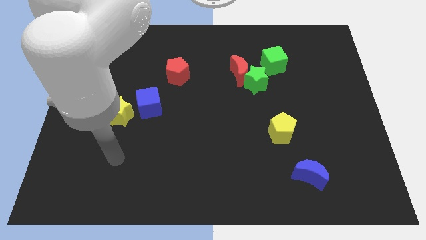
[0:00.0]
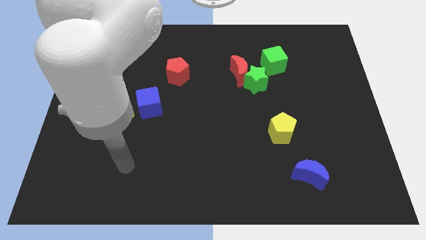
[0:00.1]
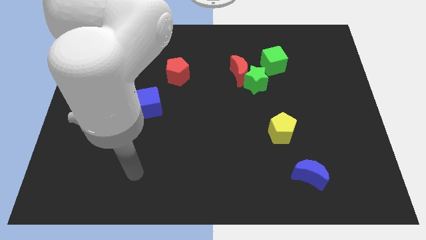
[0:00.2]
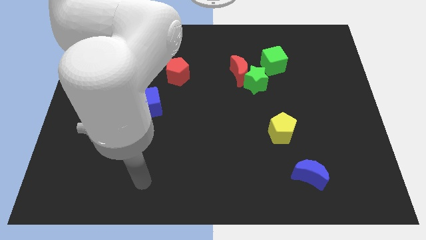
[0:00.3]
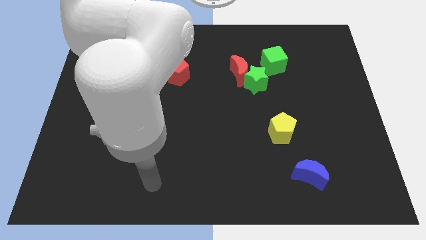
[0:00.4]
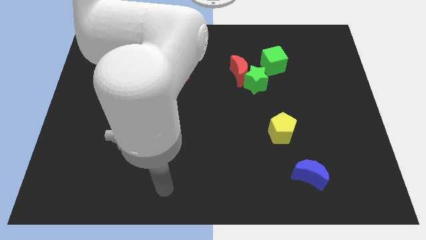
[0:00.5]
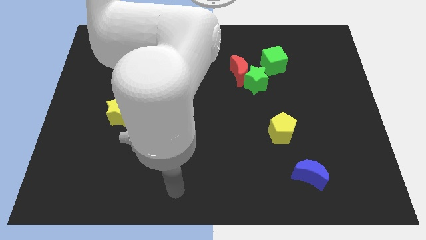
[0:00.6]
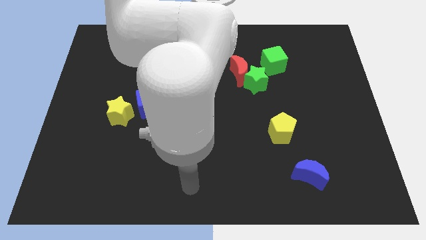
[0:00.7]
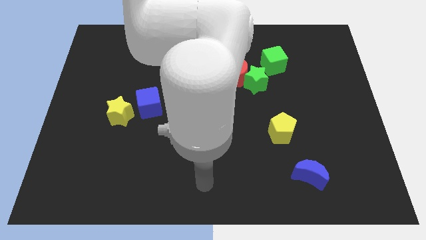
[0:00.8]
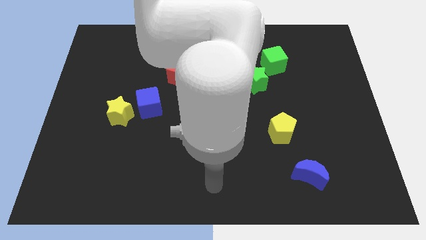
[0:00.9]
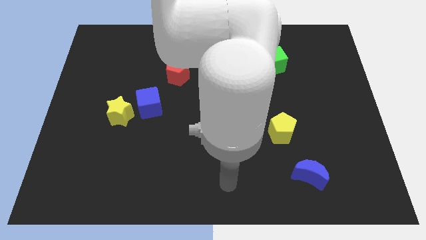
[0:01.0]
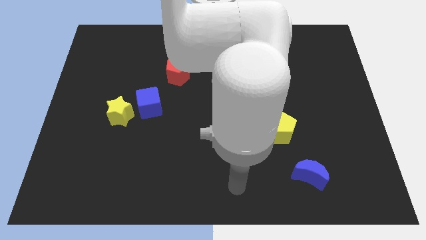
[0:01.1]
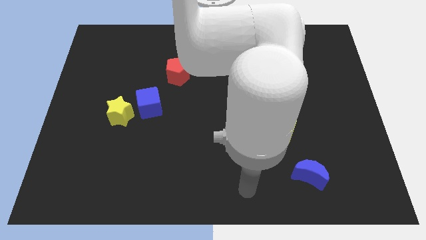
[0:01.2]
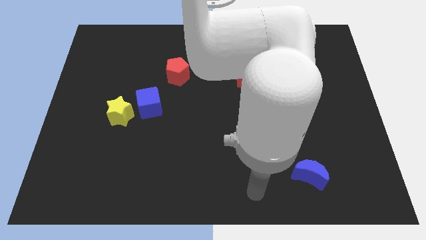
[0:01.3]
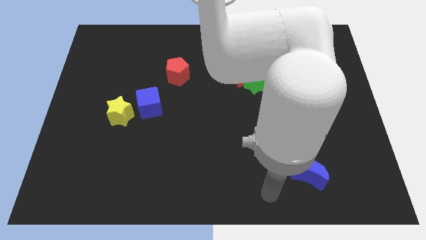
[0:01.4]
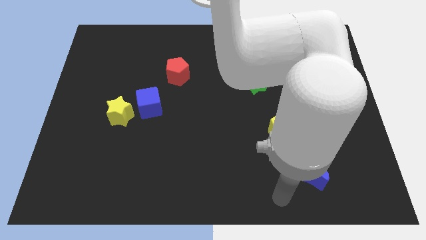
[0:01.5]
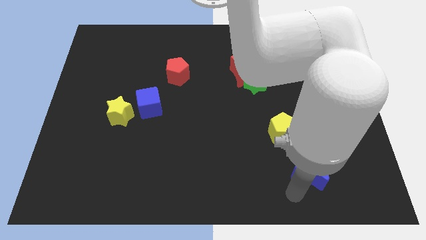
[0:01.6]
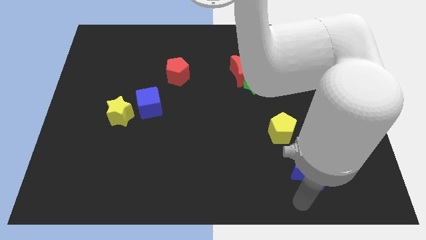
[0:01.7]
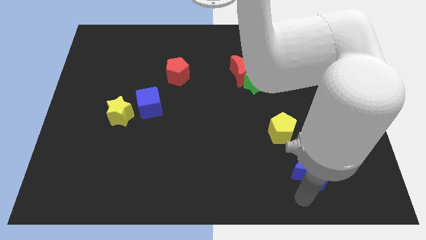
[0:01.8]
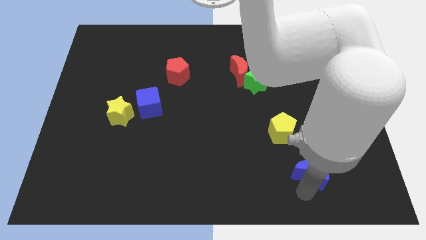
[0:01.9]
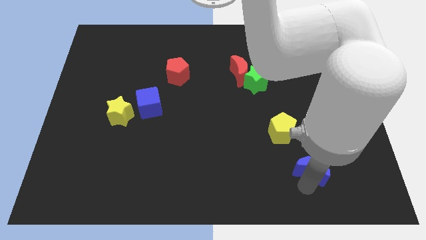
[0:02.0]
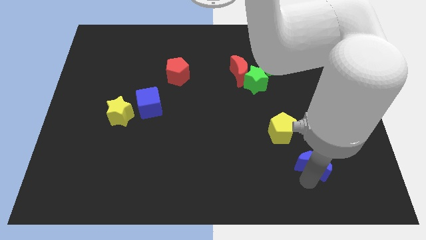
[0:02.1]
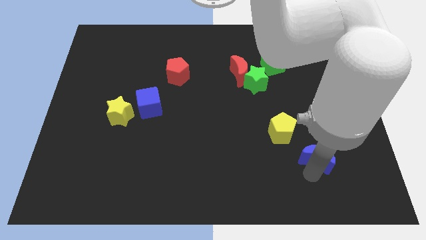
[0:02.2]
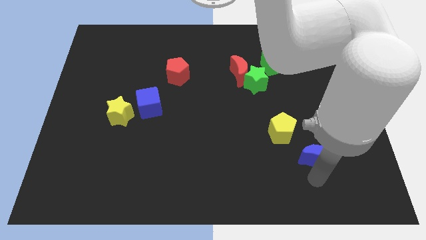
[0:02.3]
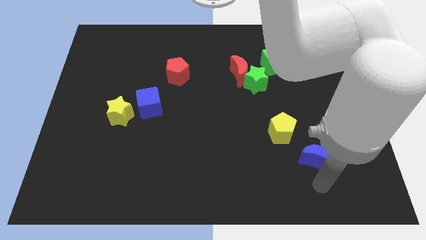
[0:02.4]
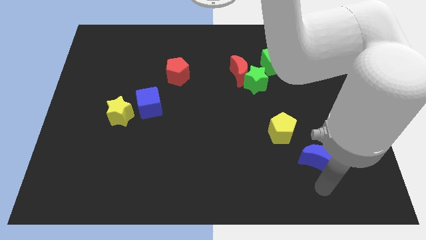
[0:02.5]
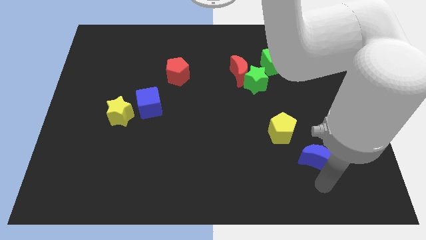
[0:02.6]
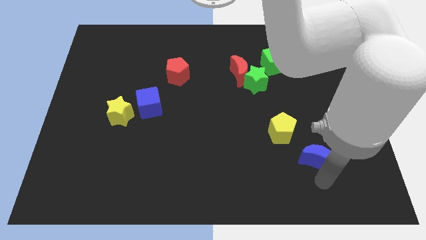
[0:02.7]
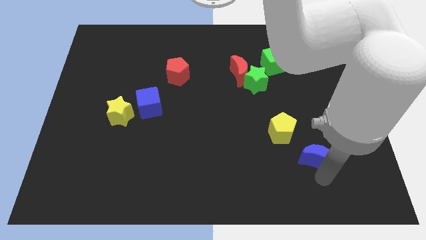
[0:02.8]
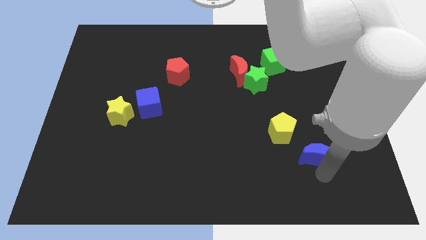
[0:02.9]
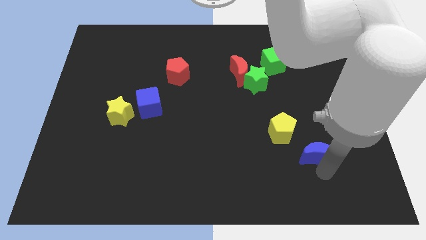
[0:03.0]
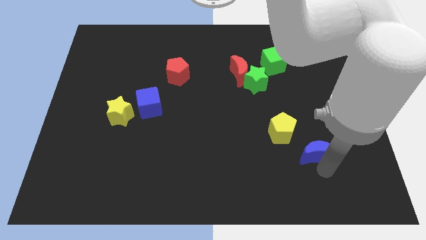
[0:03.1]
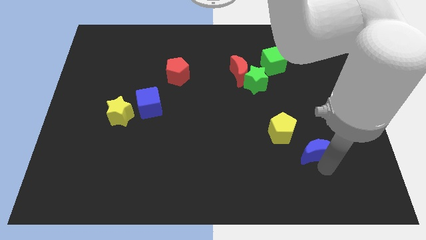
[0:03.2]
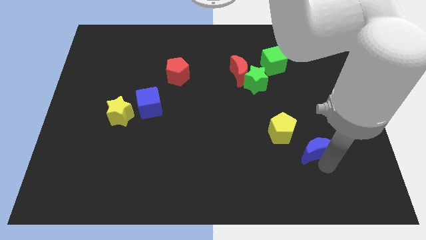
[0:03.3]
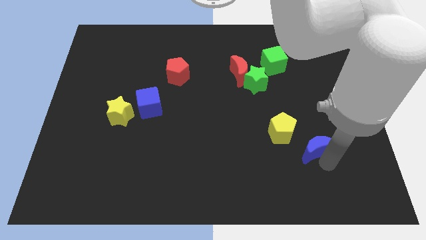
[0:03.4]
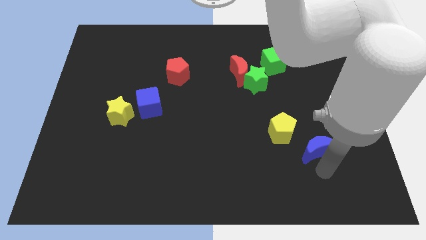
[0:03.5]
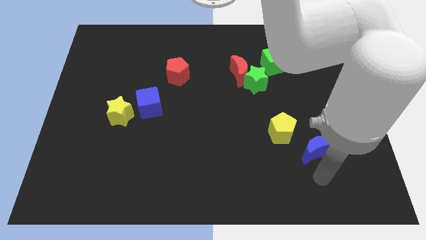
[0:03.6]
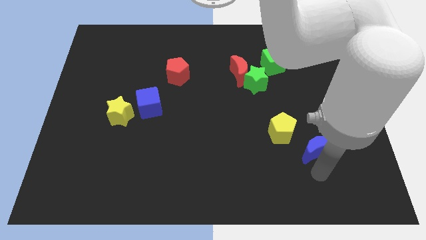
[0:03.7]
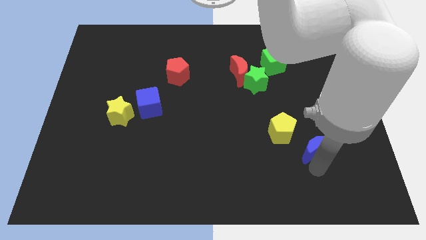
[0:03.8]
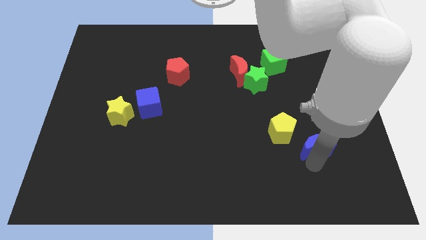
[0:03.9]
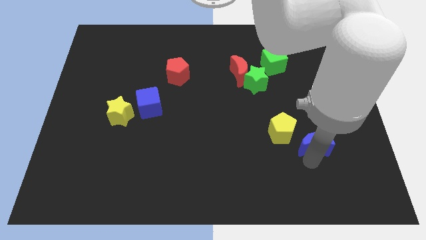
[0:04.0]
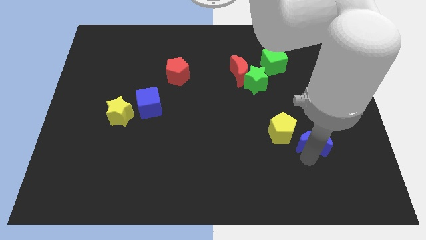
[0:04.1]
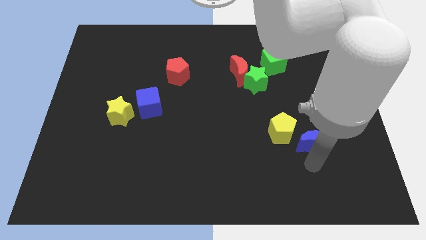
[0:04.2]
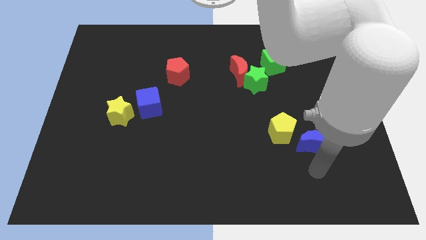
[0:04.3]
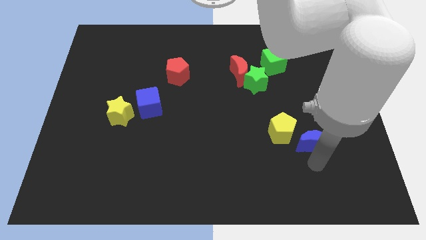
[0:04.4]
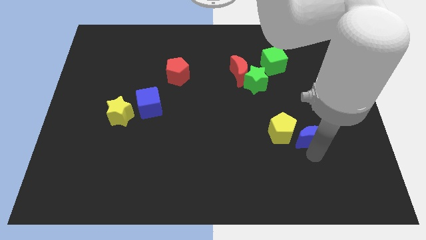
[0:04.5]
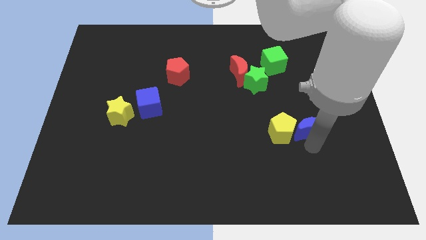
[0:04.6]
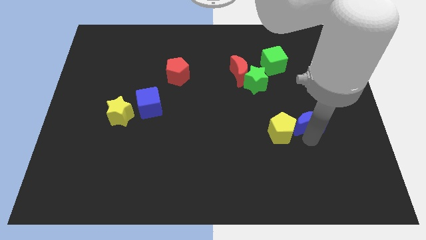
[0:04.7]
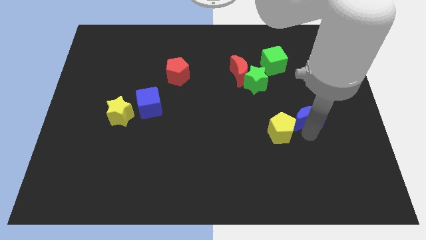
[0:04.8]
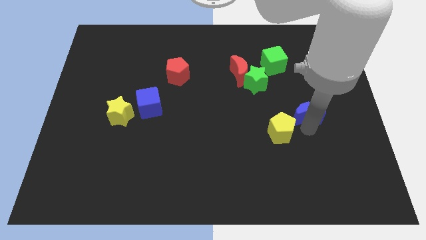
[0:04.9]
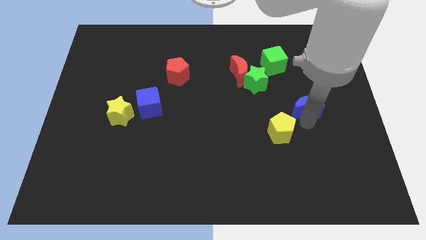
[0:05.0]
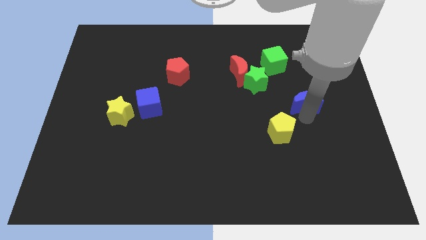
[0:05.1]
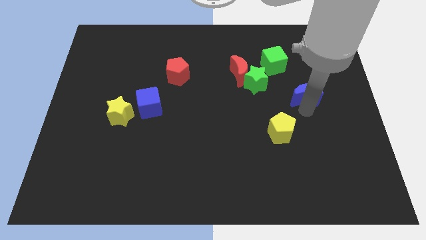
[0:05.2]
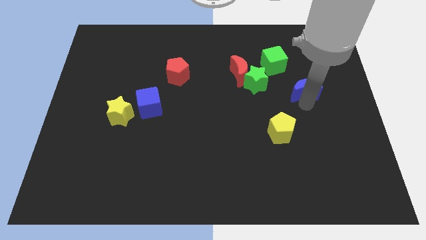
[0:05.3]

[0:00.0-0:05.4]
move the blue moon to the bottom right side of the green cube

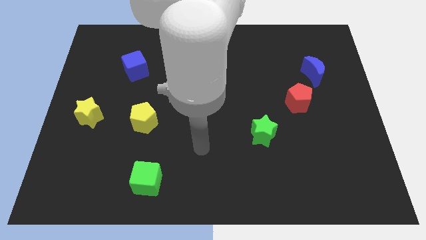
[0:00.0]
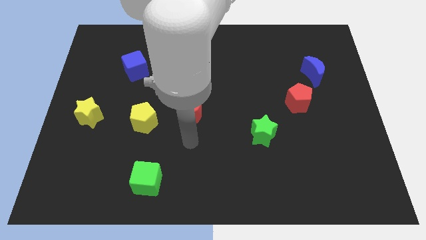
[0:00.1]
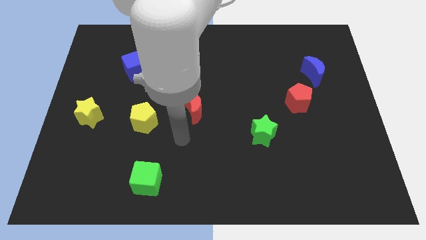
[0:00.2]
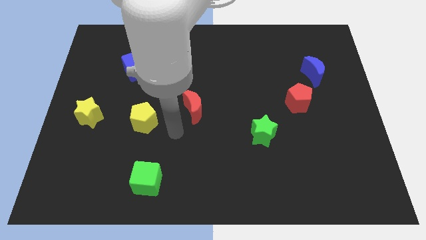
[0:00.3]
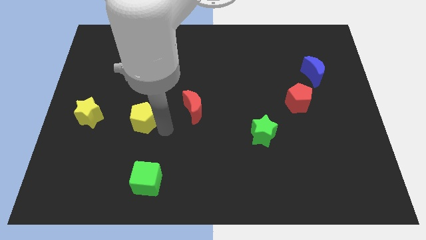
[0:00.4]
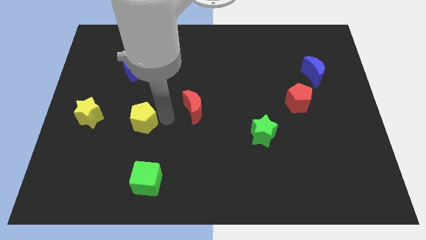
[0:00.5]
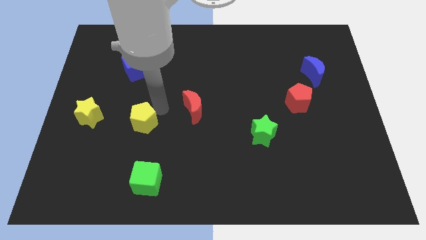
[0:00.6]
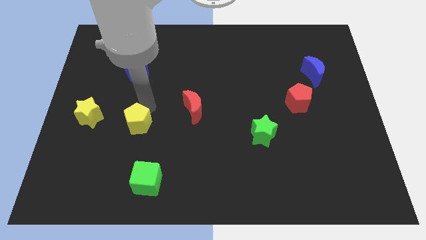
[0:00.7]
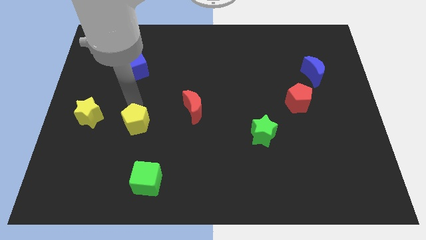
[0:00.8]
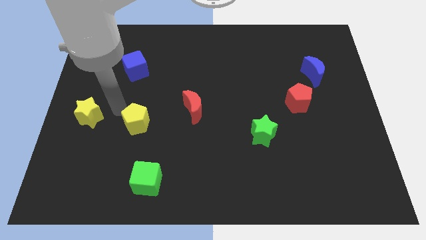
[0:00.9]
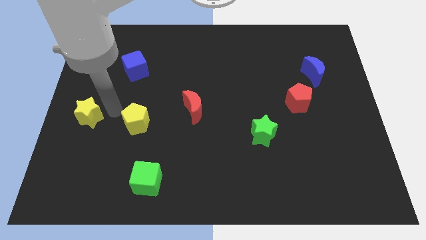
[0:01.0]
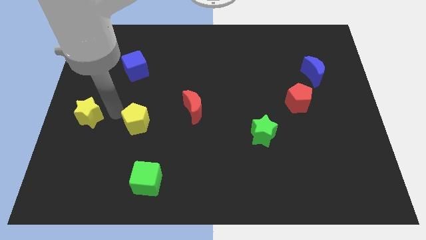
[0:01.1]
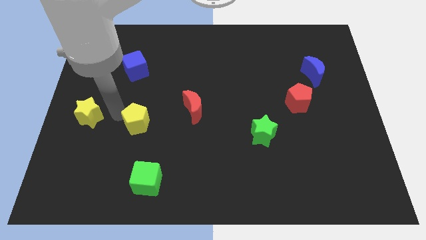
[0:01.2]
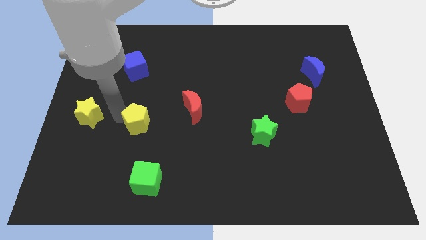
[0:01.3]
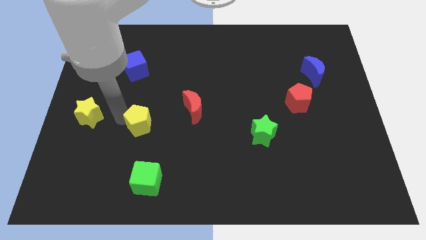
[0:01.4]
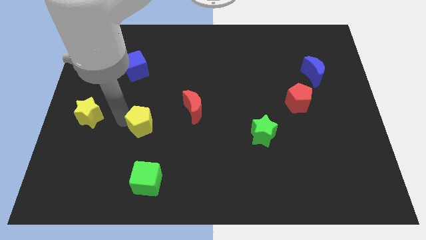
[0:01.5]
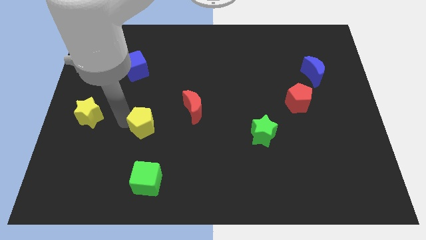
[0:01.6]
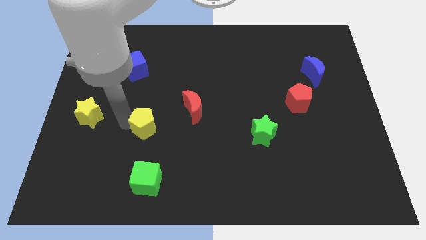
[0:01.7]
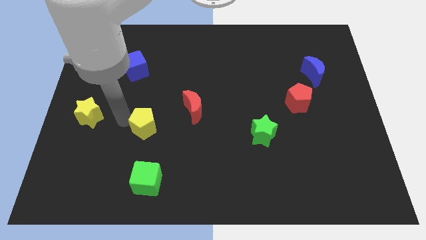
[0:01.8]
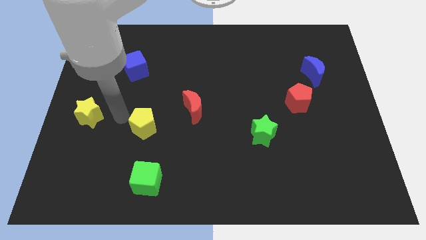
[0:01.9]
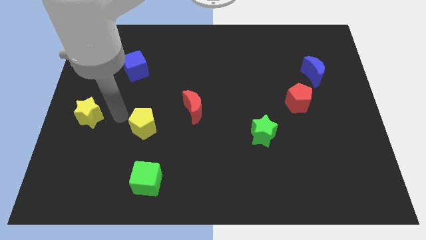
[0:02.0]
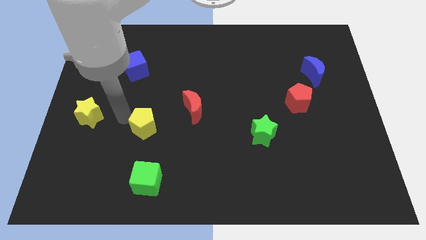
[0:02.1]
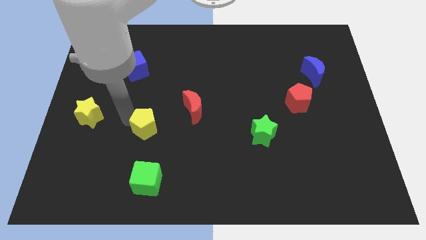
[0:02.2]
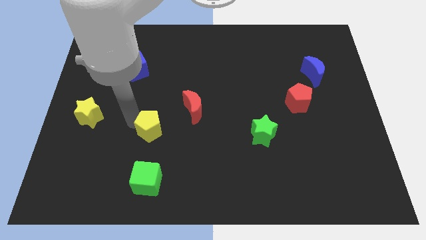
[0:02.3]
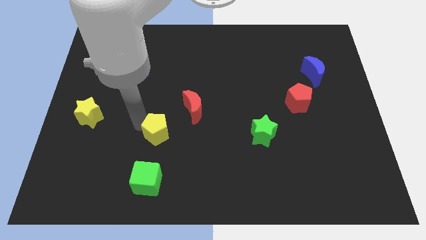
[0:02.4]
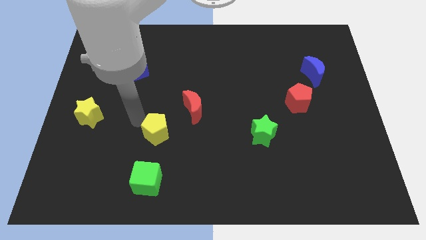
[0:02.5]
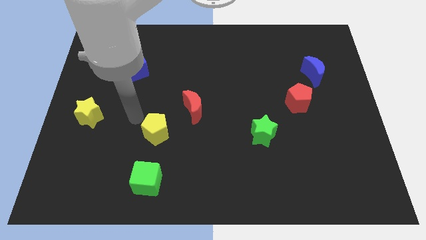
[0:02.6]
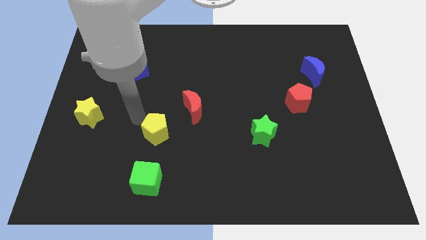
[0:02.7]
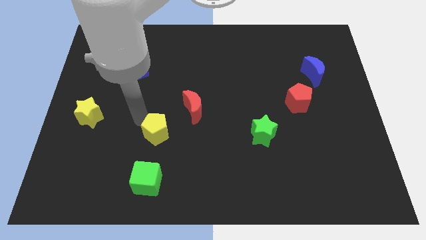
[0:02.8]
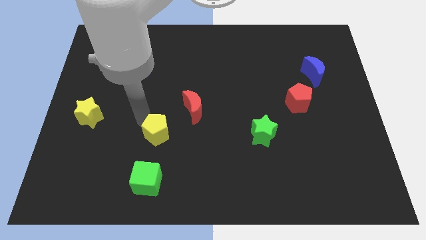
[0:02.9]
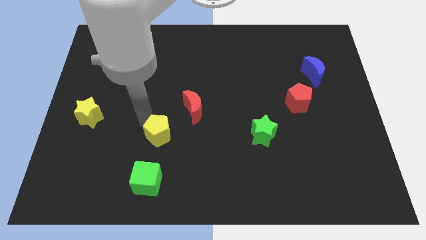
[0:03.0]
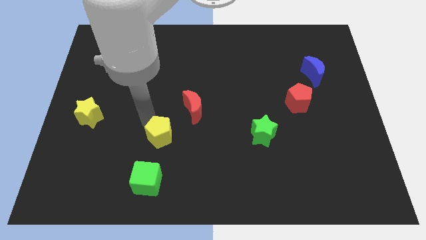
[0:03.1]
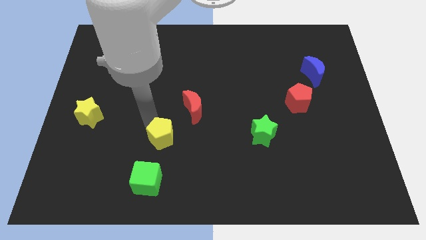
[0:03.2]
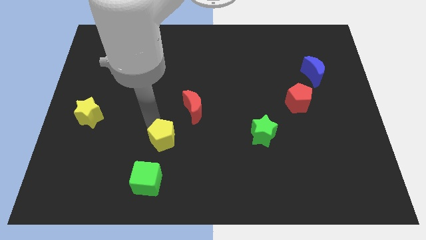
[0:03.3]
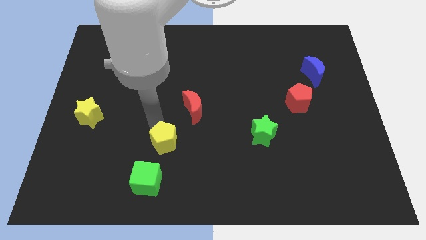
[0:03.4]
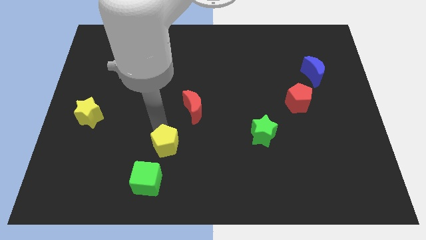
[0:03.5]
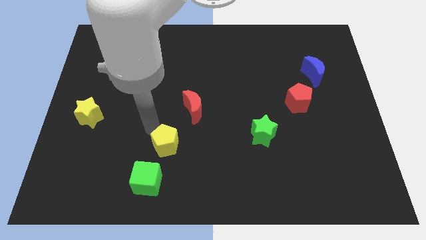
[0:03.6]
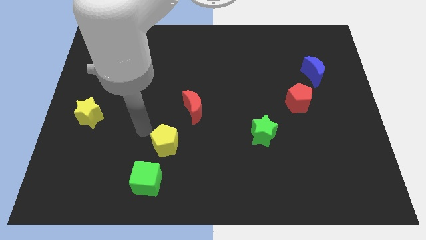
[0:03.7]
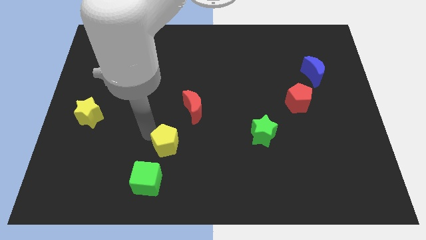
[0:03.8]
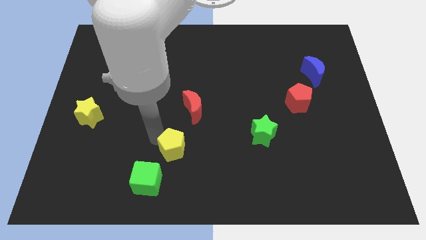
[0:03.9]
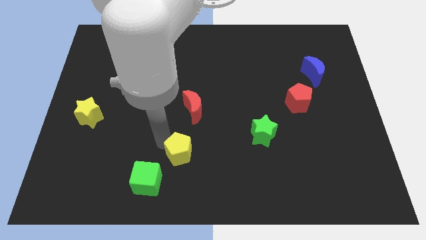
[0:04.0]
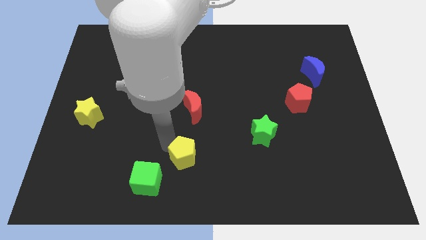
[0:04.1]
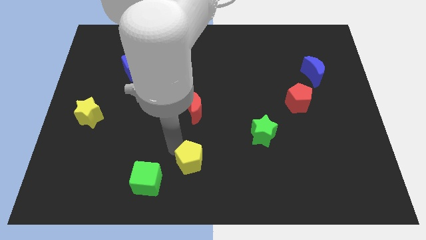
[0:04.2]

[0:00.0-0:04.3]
put the yellow pentagon right of the green cube
